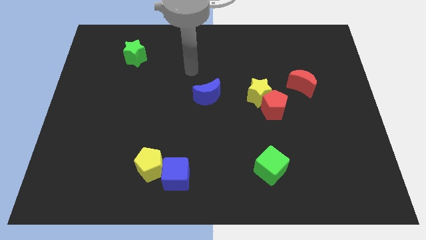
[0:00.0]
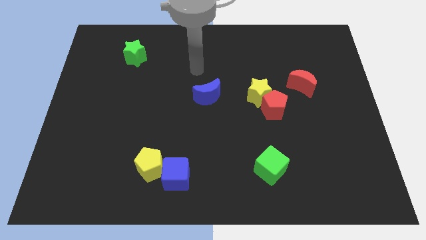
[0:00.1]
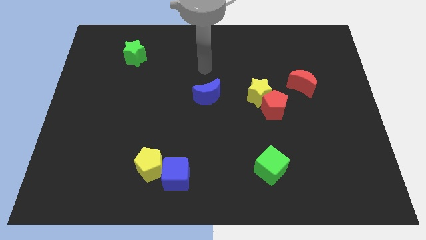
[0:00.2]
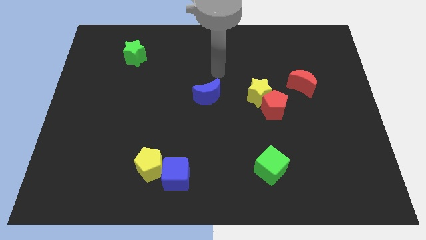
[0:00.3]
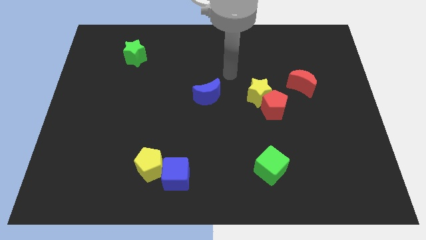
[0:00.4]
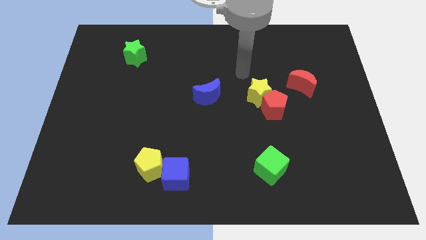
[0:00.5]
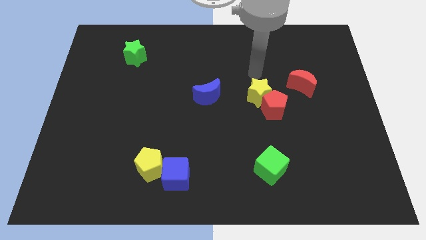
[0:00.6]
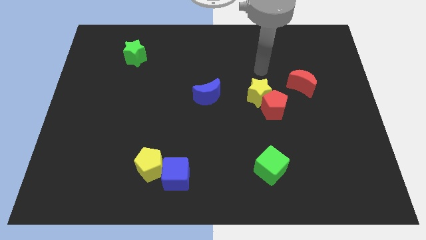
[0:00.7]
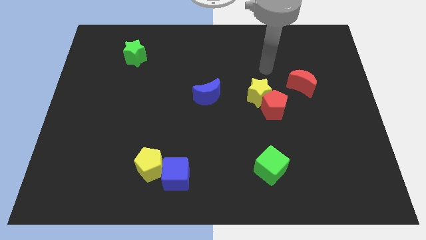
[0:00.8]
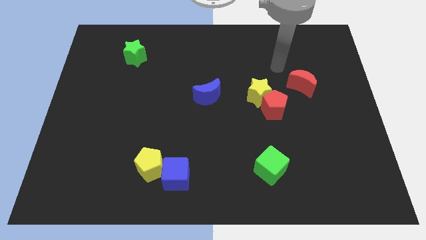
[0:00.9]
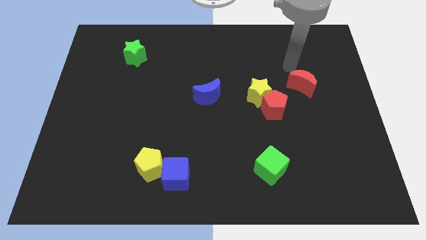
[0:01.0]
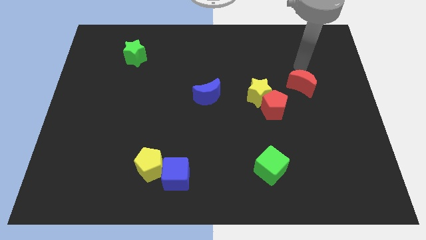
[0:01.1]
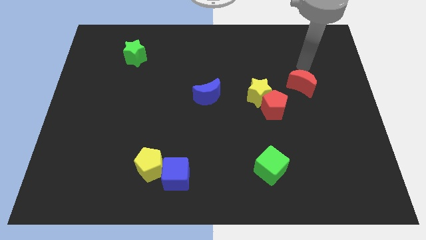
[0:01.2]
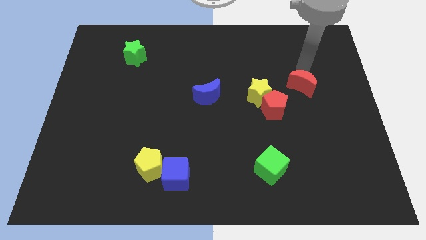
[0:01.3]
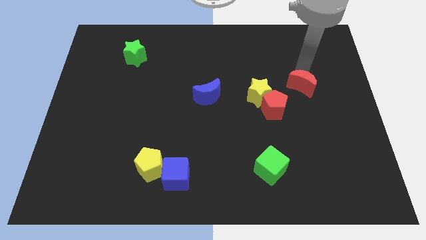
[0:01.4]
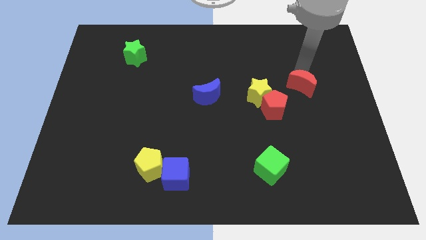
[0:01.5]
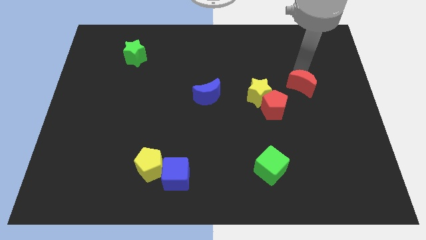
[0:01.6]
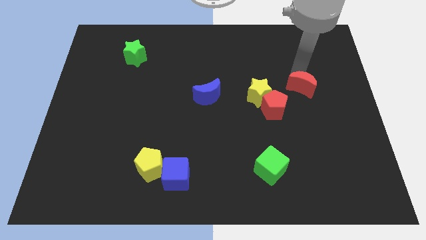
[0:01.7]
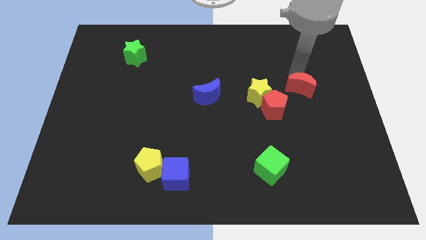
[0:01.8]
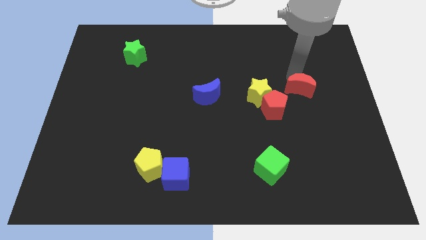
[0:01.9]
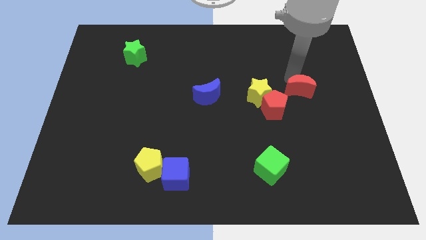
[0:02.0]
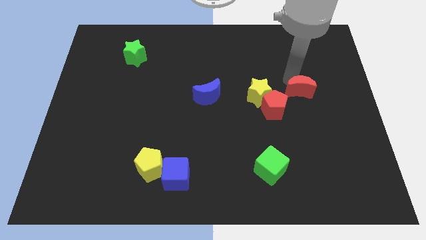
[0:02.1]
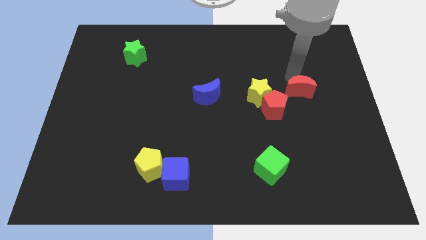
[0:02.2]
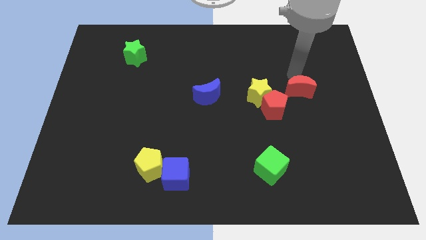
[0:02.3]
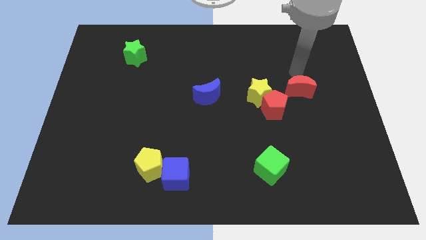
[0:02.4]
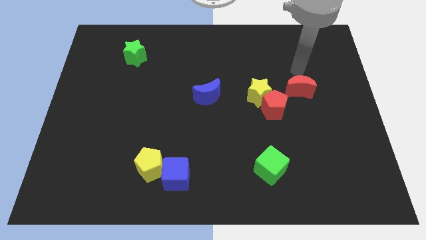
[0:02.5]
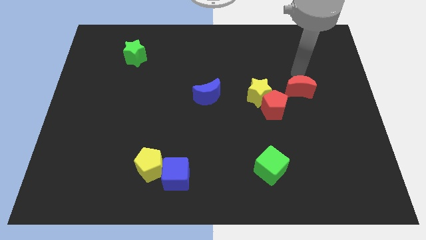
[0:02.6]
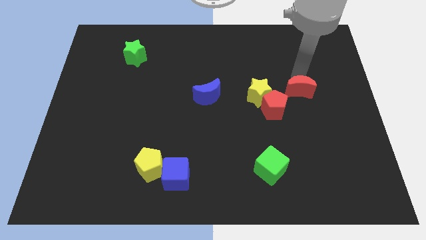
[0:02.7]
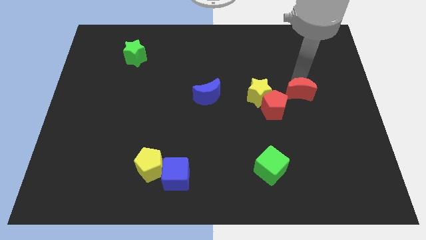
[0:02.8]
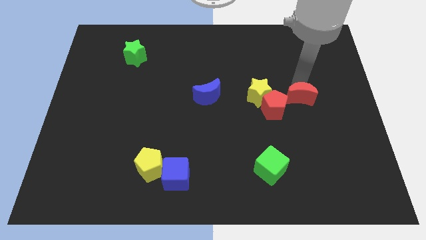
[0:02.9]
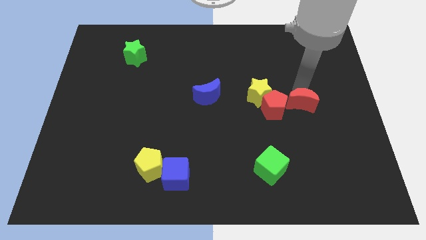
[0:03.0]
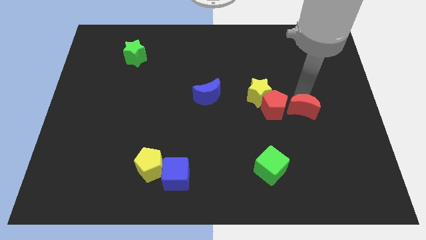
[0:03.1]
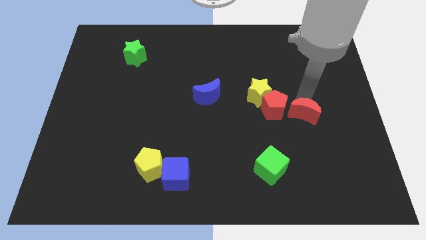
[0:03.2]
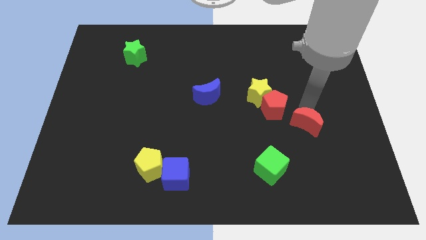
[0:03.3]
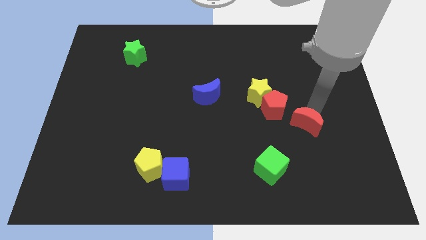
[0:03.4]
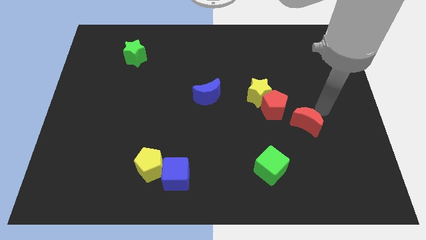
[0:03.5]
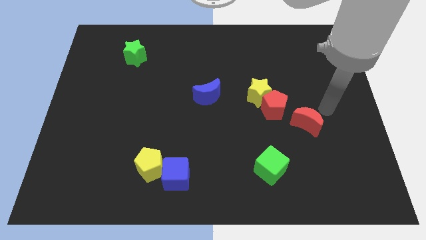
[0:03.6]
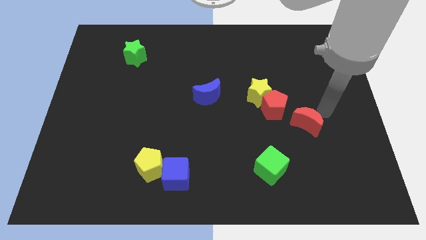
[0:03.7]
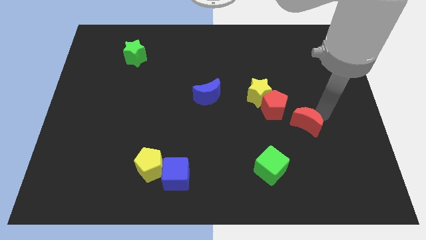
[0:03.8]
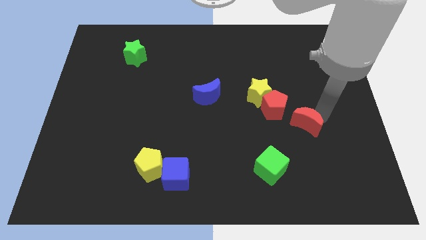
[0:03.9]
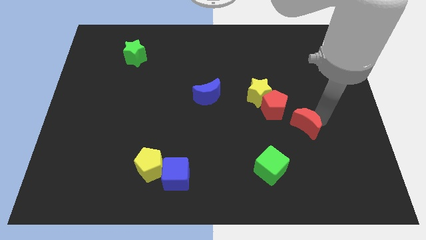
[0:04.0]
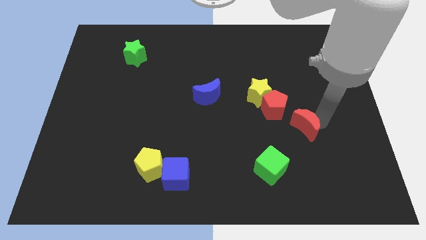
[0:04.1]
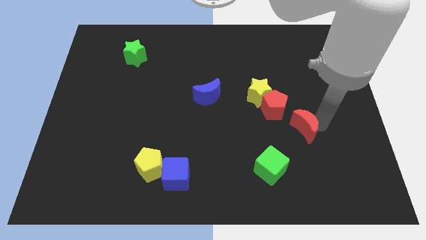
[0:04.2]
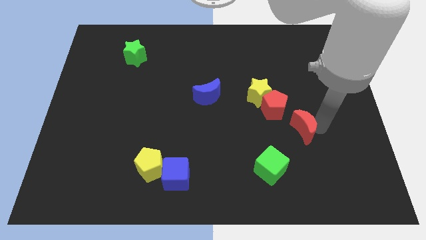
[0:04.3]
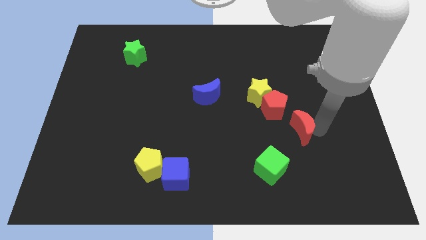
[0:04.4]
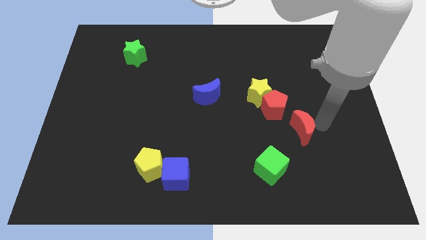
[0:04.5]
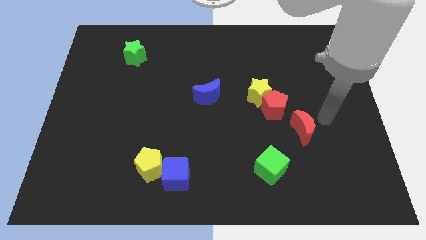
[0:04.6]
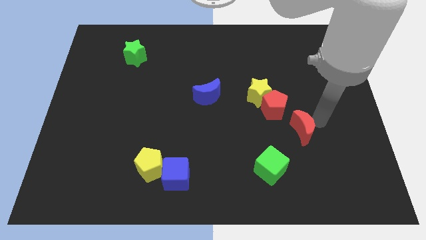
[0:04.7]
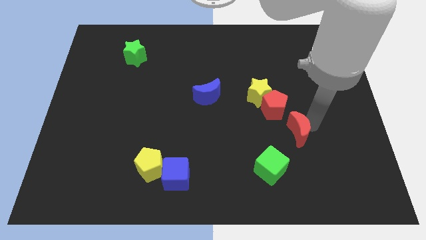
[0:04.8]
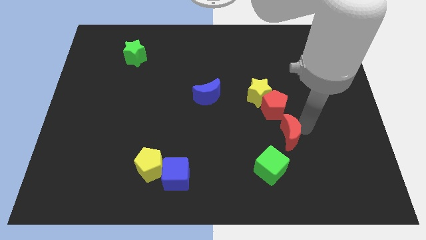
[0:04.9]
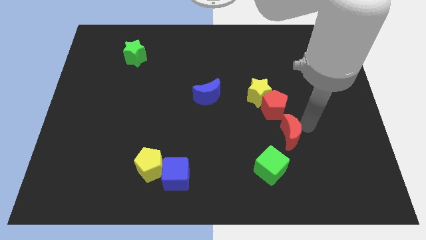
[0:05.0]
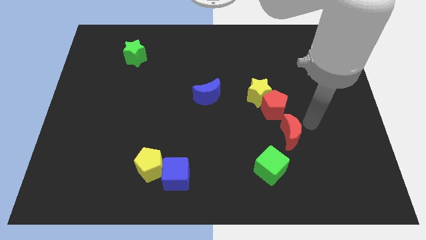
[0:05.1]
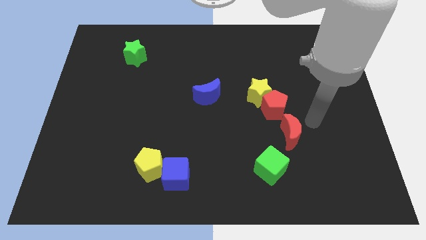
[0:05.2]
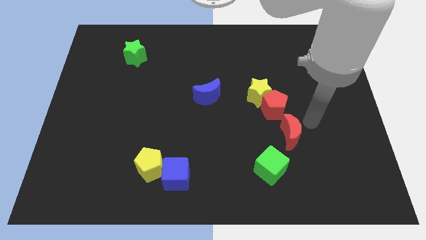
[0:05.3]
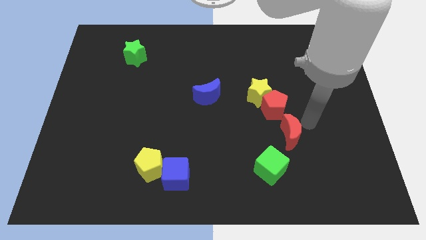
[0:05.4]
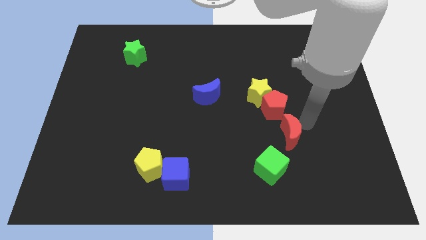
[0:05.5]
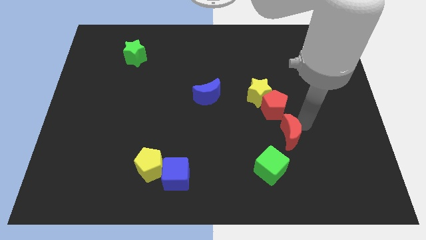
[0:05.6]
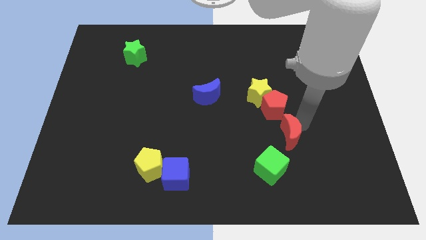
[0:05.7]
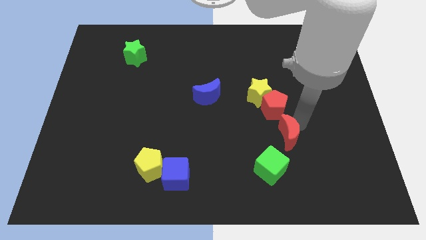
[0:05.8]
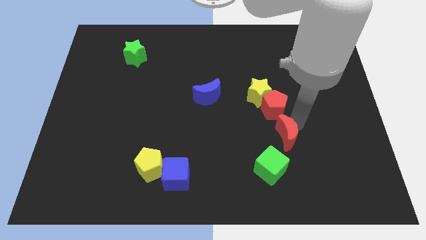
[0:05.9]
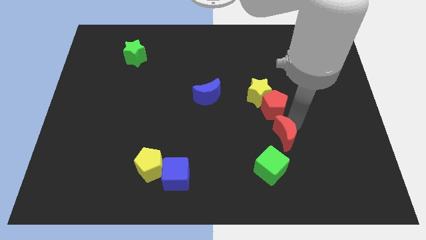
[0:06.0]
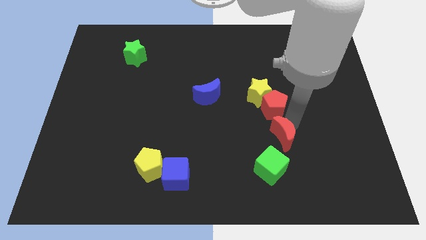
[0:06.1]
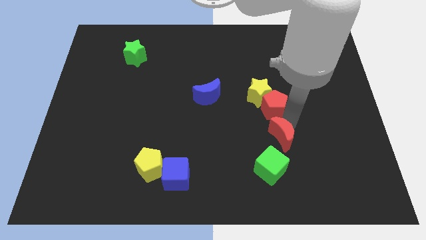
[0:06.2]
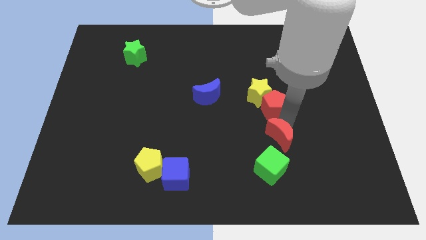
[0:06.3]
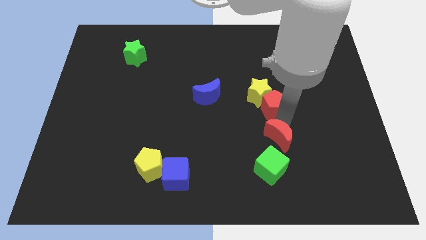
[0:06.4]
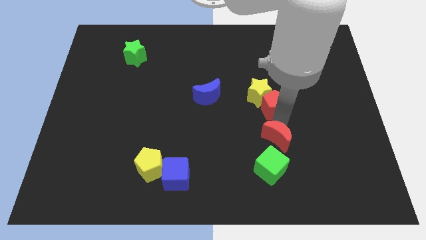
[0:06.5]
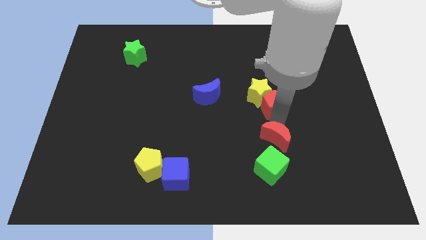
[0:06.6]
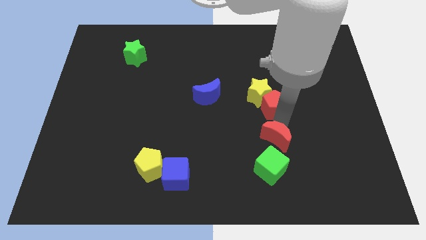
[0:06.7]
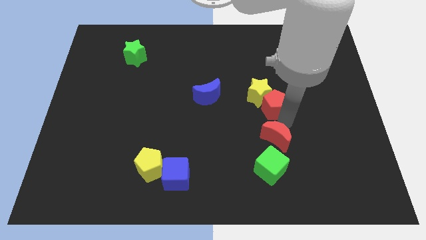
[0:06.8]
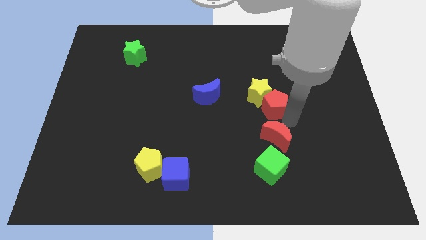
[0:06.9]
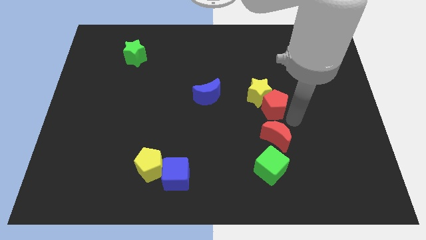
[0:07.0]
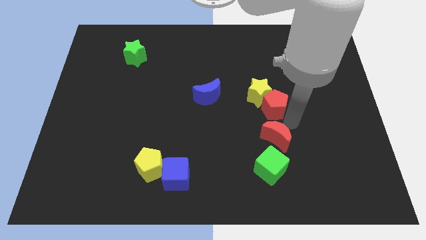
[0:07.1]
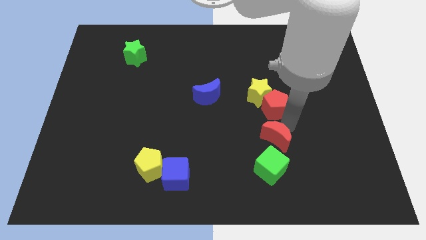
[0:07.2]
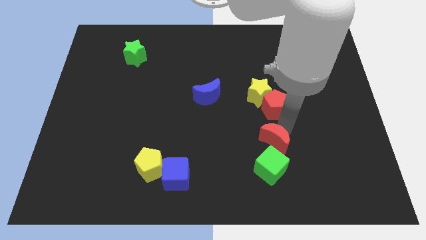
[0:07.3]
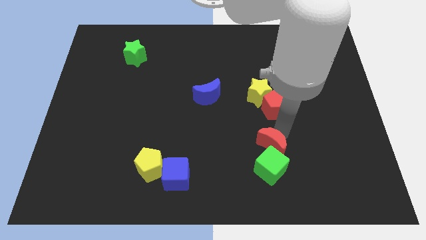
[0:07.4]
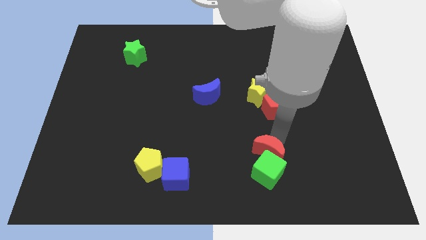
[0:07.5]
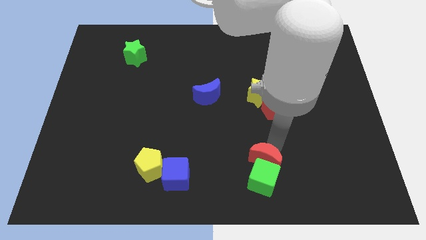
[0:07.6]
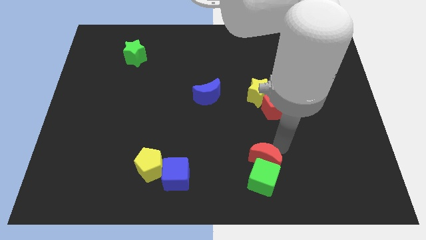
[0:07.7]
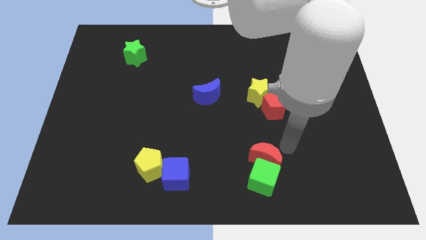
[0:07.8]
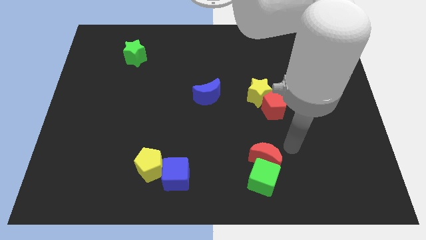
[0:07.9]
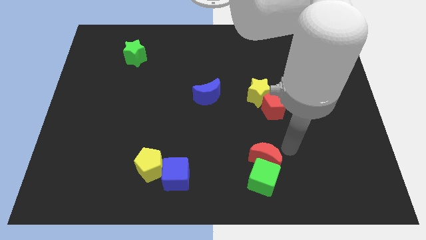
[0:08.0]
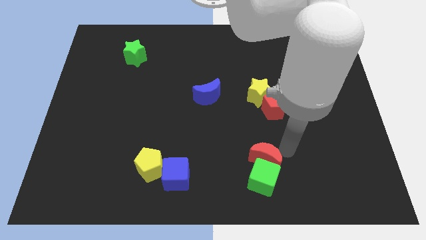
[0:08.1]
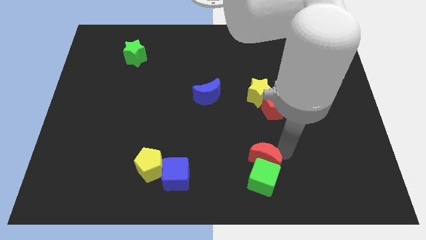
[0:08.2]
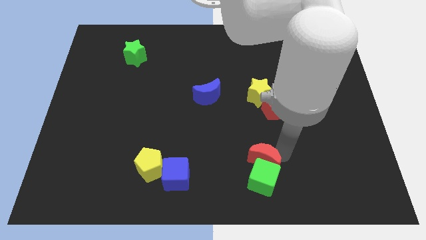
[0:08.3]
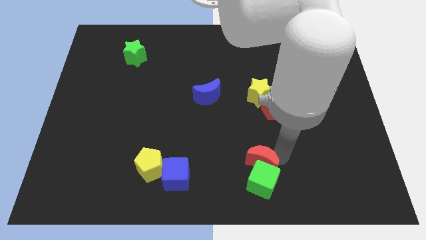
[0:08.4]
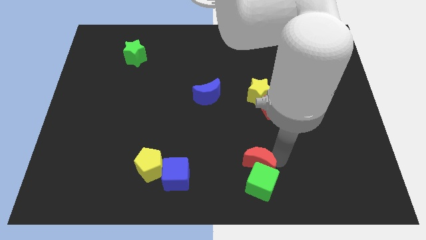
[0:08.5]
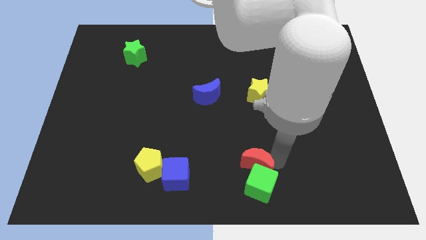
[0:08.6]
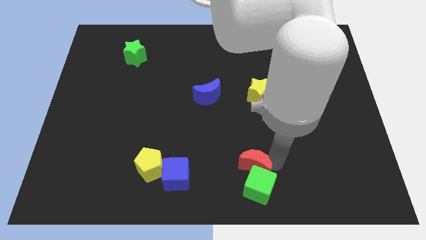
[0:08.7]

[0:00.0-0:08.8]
push the red moon to the bottom
